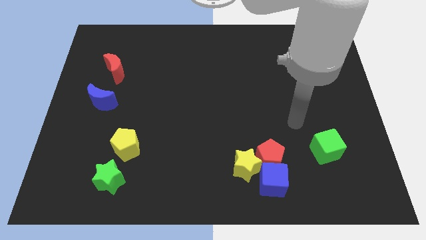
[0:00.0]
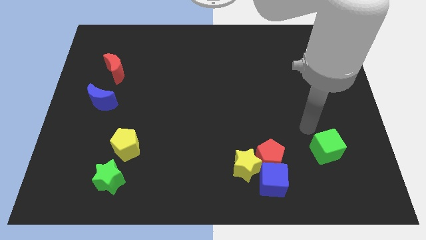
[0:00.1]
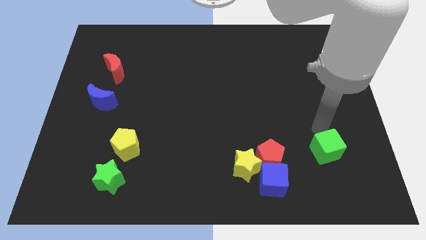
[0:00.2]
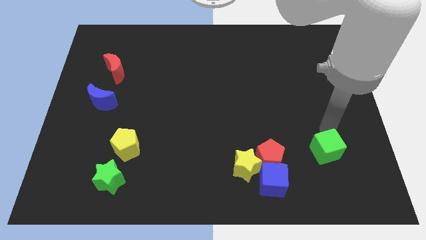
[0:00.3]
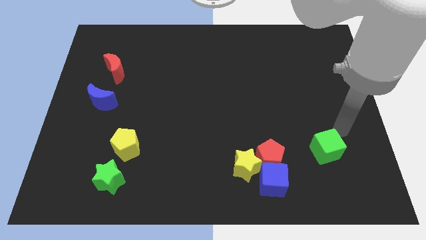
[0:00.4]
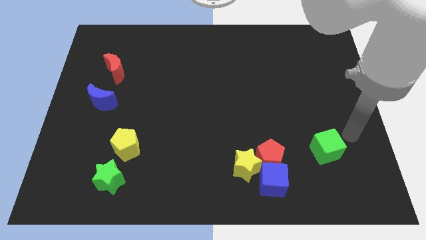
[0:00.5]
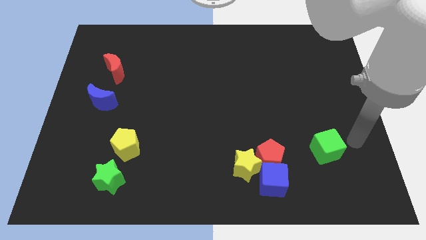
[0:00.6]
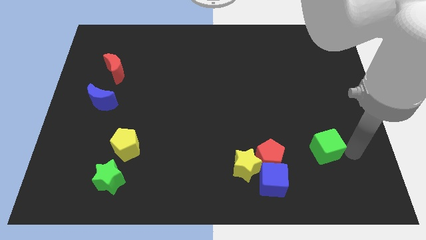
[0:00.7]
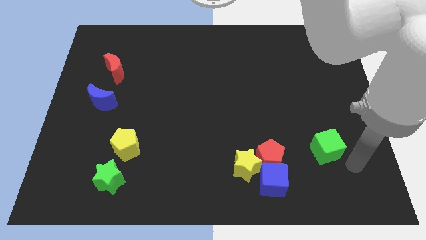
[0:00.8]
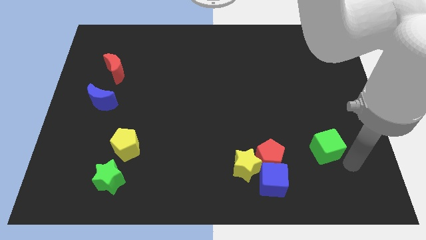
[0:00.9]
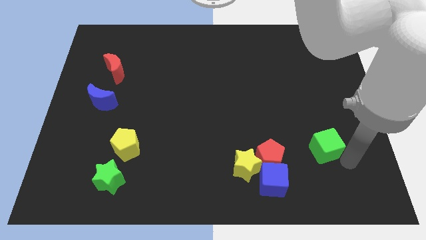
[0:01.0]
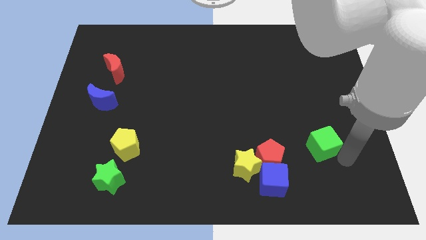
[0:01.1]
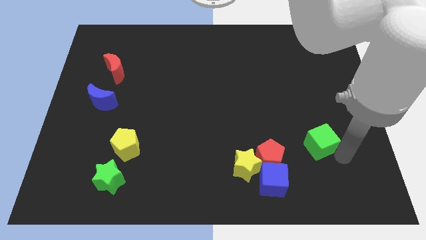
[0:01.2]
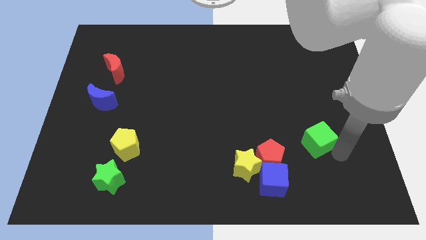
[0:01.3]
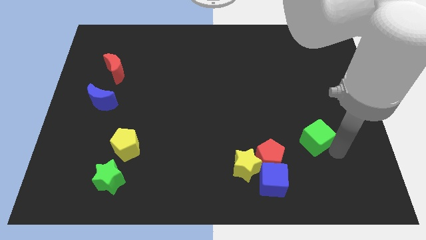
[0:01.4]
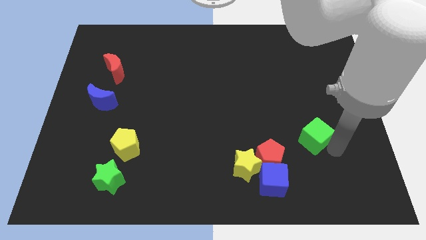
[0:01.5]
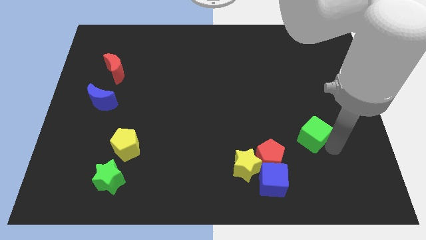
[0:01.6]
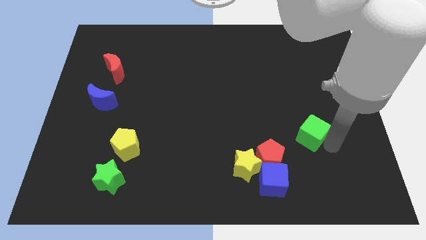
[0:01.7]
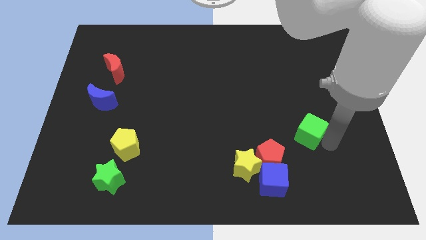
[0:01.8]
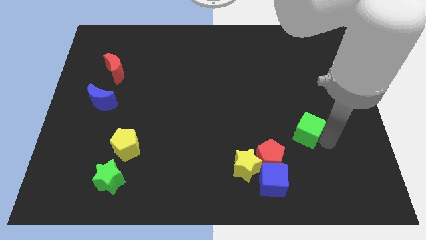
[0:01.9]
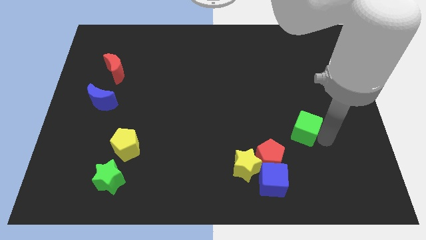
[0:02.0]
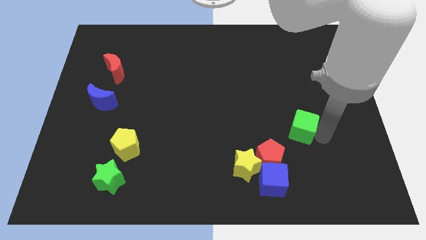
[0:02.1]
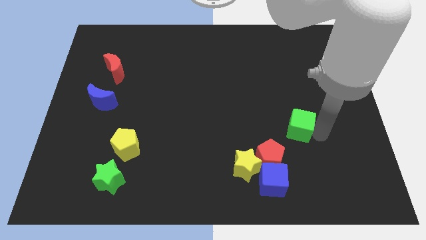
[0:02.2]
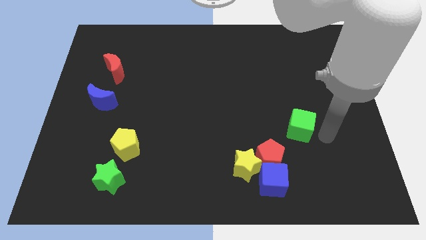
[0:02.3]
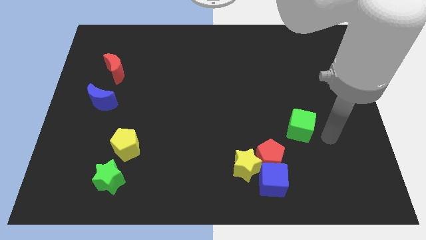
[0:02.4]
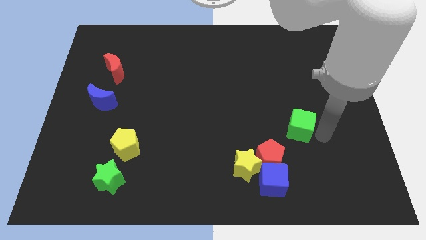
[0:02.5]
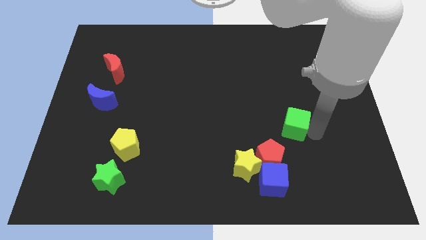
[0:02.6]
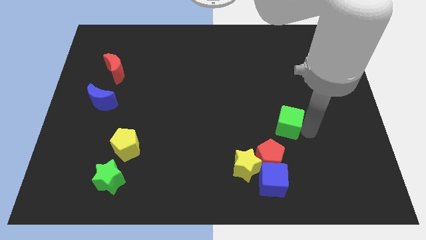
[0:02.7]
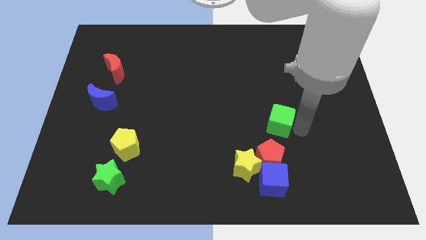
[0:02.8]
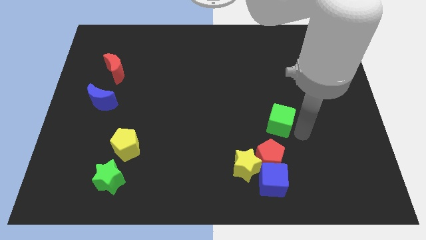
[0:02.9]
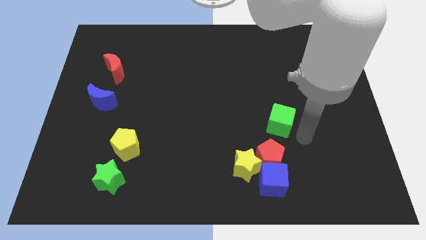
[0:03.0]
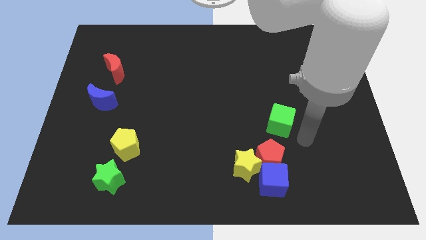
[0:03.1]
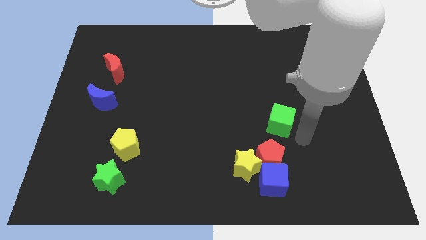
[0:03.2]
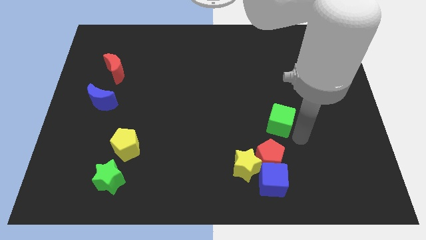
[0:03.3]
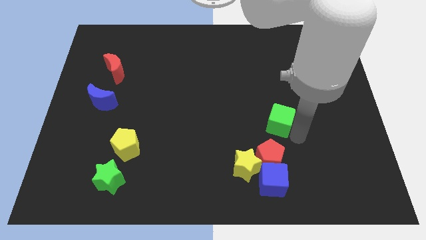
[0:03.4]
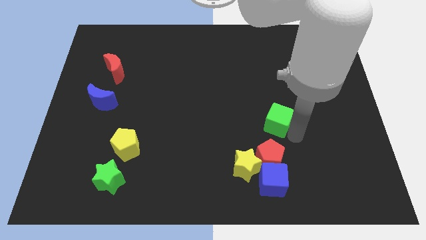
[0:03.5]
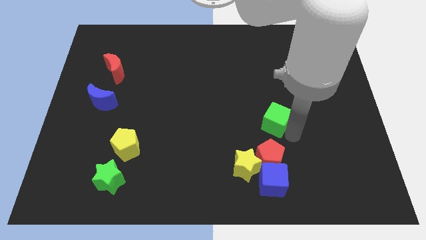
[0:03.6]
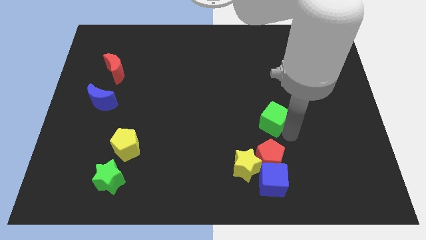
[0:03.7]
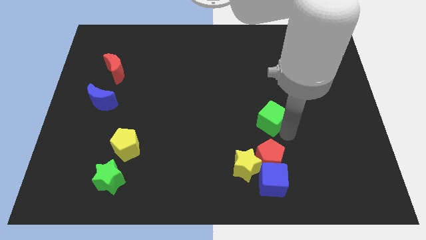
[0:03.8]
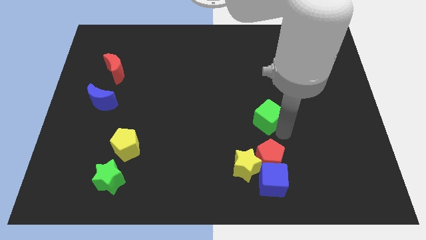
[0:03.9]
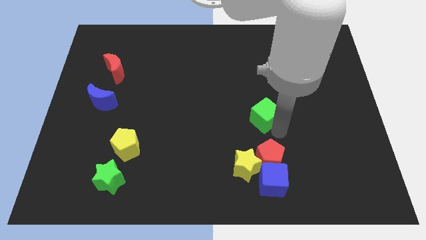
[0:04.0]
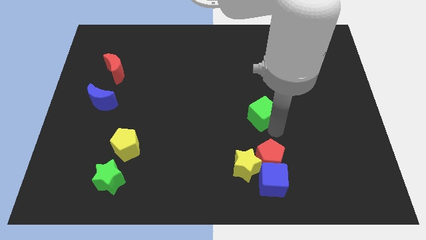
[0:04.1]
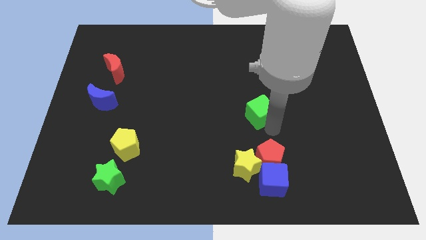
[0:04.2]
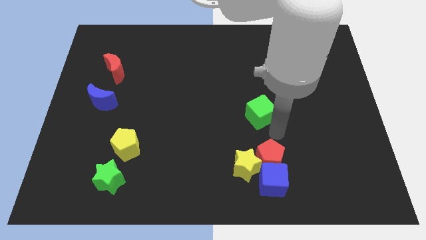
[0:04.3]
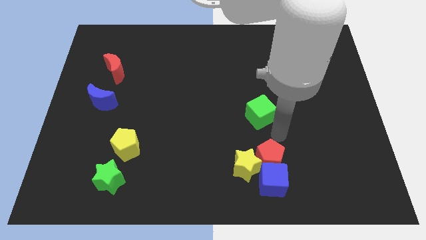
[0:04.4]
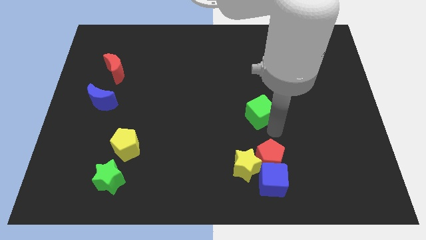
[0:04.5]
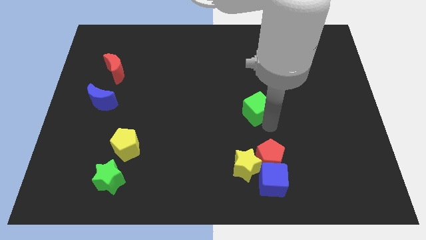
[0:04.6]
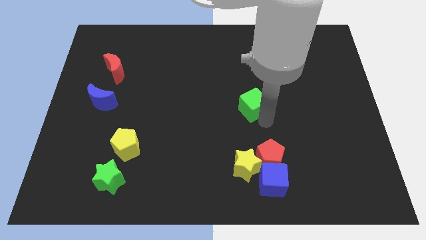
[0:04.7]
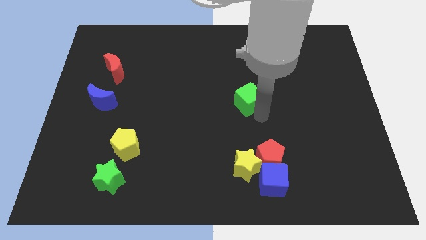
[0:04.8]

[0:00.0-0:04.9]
slide the green cube diagonally upwards and to the left

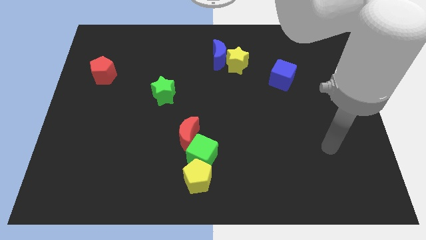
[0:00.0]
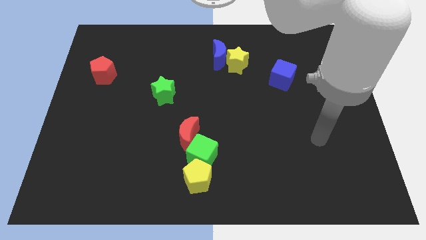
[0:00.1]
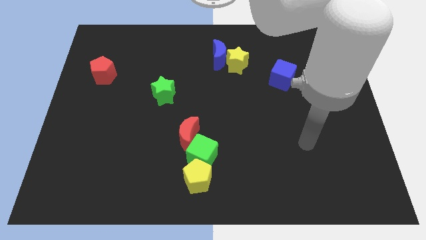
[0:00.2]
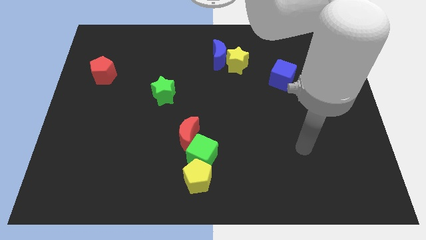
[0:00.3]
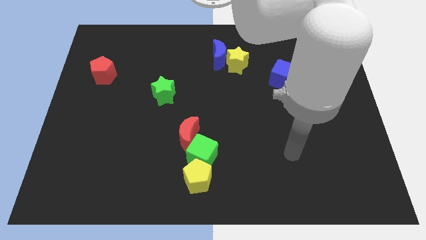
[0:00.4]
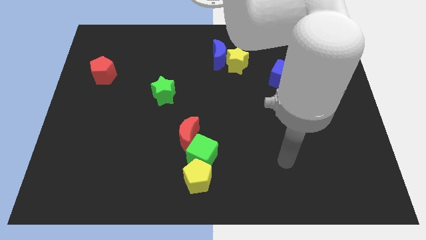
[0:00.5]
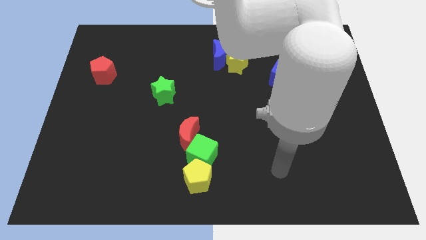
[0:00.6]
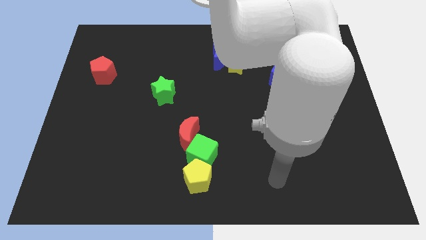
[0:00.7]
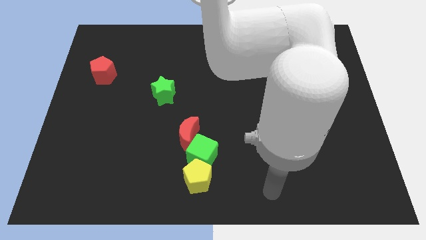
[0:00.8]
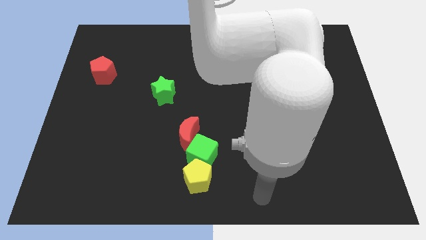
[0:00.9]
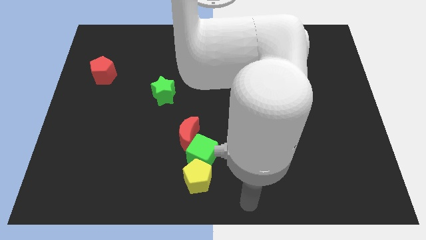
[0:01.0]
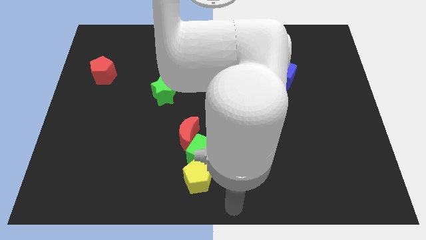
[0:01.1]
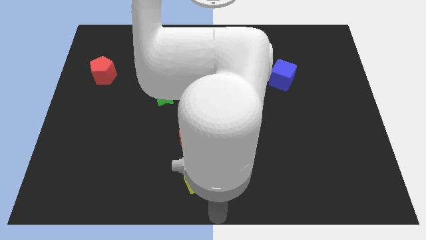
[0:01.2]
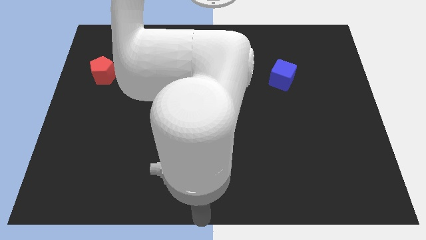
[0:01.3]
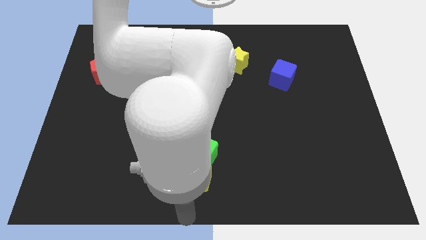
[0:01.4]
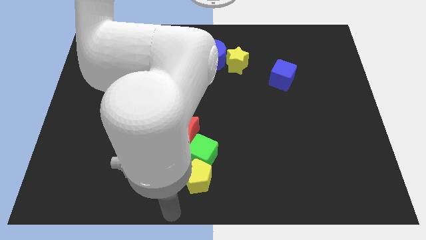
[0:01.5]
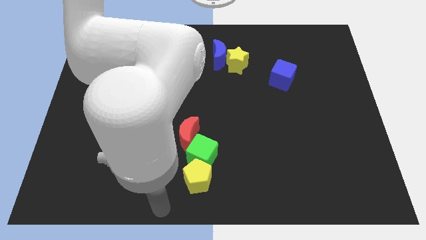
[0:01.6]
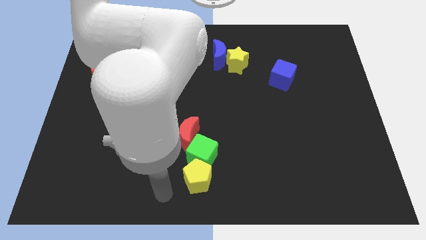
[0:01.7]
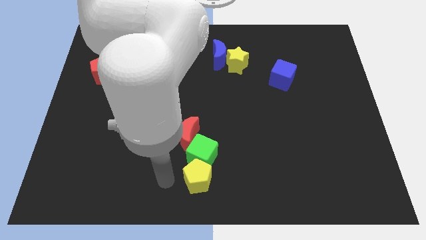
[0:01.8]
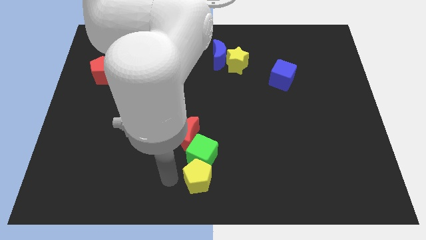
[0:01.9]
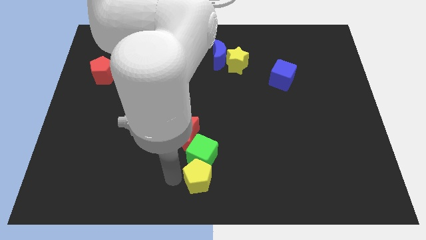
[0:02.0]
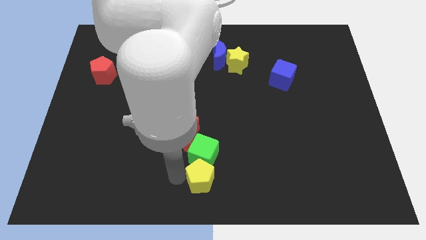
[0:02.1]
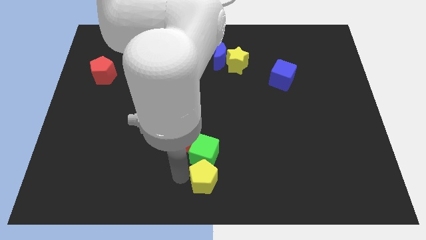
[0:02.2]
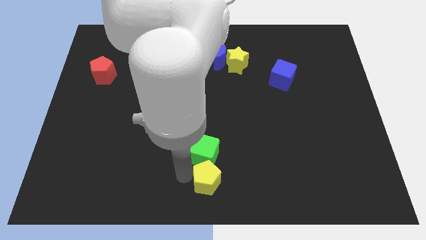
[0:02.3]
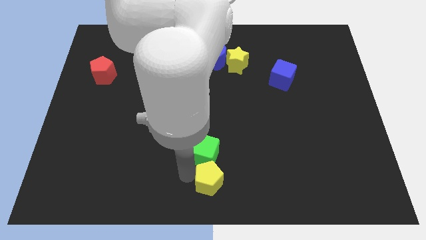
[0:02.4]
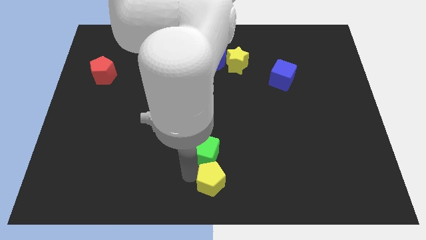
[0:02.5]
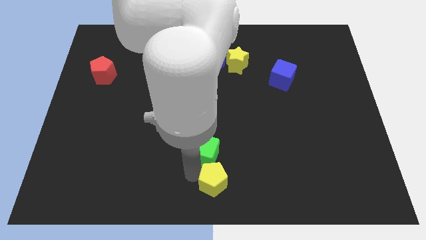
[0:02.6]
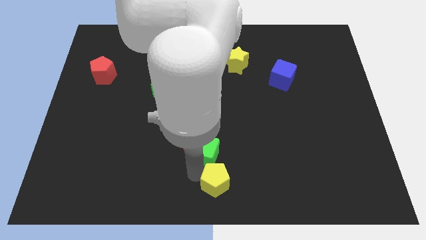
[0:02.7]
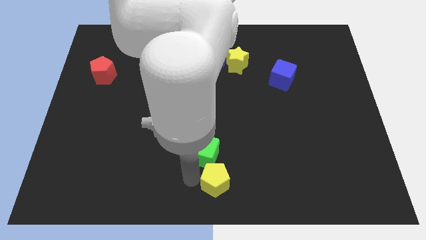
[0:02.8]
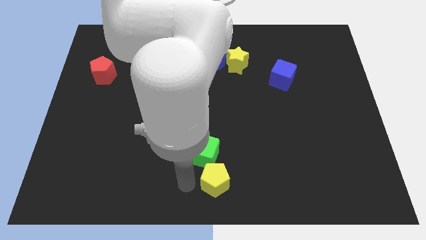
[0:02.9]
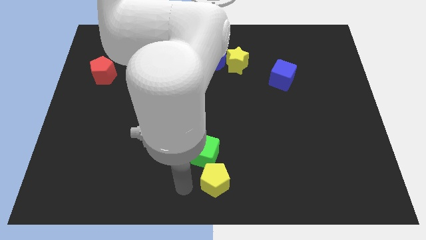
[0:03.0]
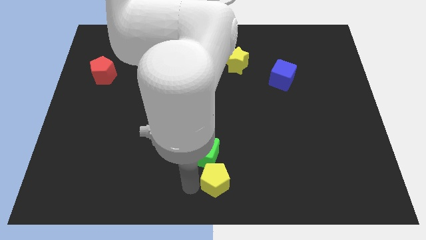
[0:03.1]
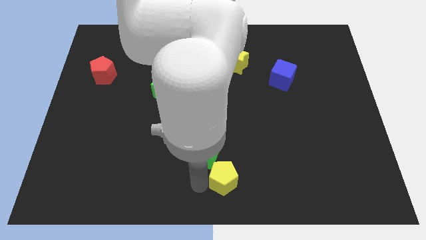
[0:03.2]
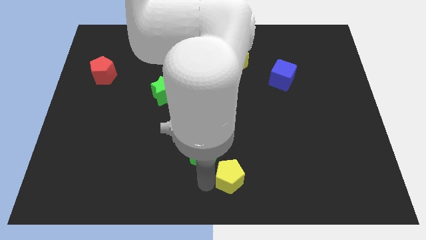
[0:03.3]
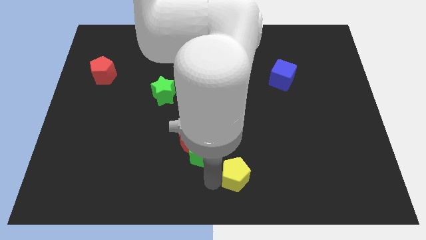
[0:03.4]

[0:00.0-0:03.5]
move the yellow pentagon to the right slightly
